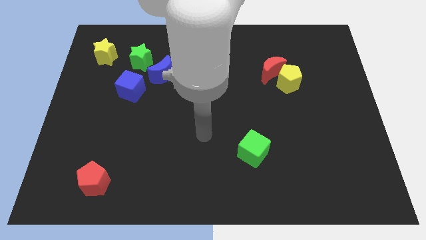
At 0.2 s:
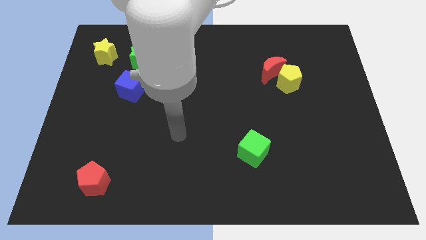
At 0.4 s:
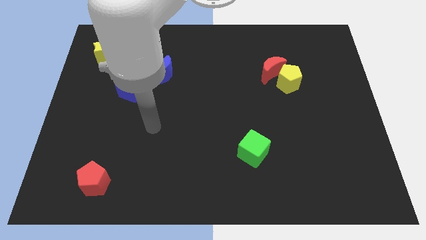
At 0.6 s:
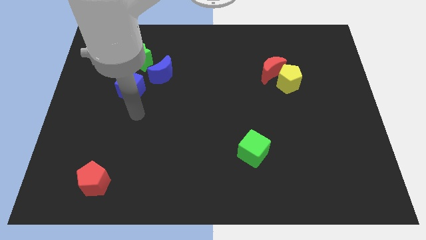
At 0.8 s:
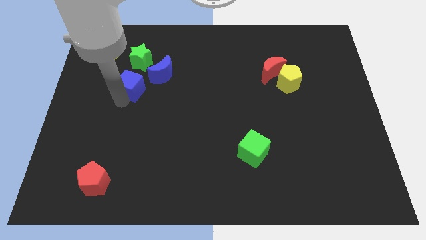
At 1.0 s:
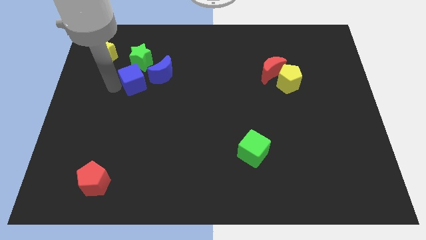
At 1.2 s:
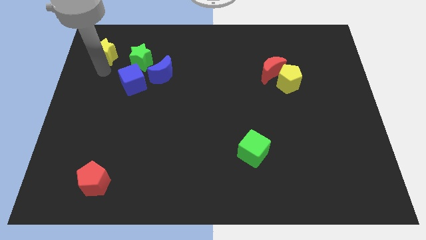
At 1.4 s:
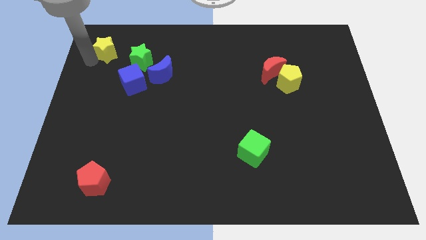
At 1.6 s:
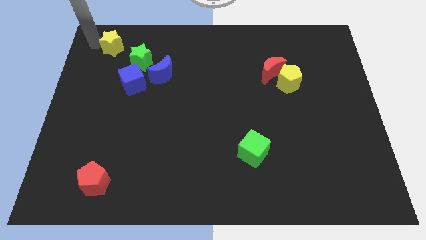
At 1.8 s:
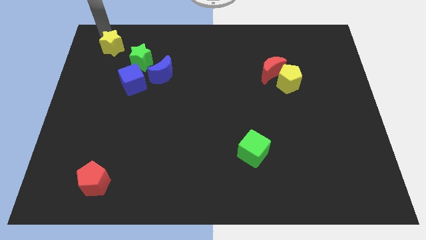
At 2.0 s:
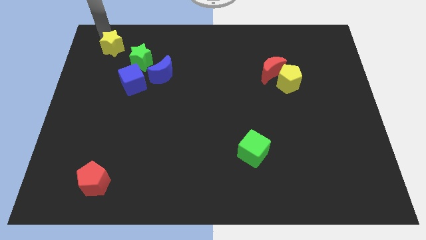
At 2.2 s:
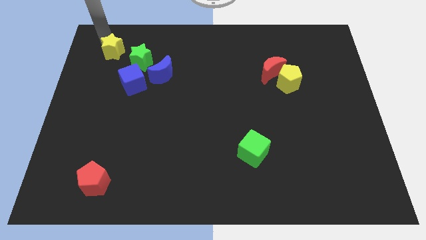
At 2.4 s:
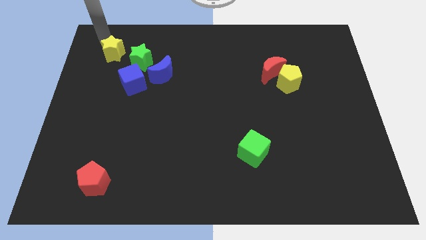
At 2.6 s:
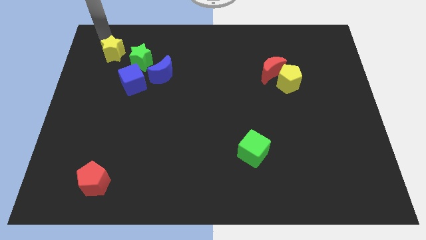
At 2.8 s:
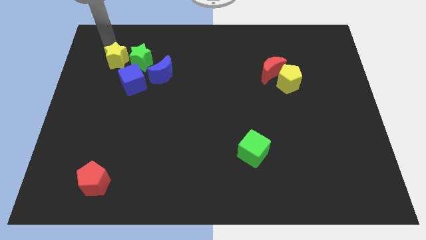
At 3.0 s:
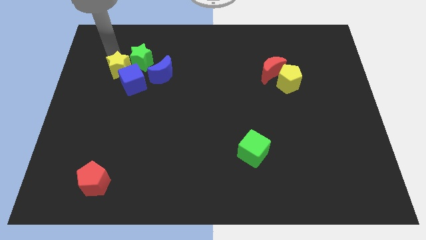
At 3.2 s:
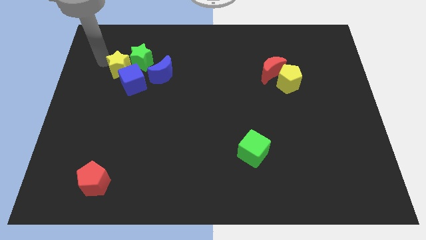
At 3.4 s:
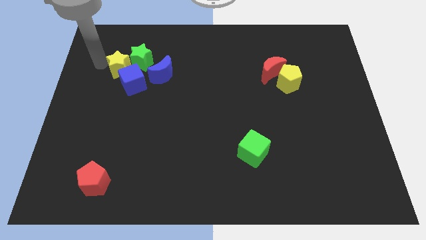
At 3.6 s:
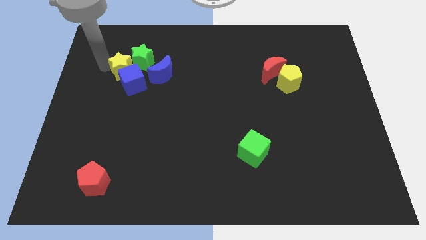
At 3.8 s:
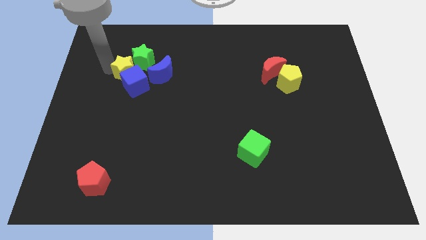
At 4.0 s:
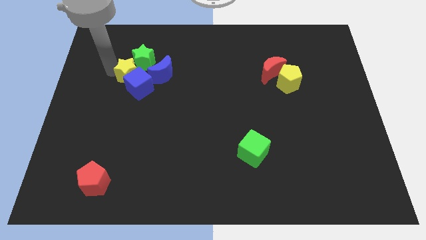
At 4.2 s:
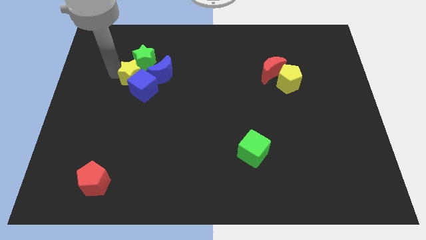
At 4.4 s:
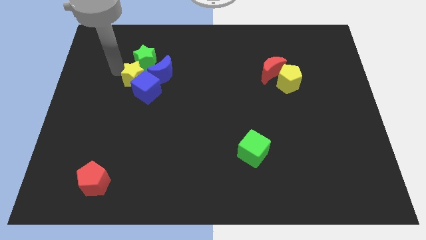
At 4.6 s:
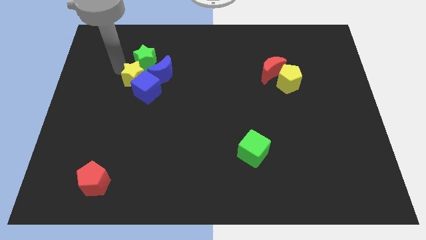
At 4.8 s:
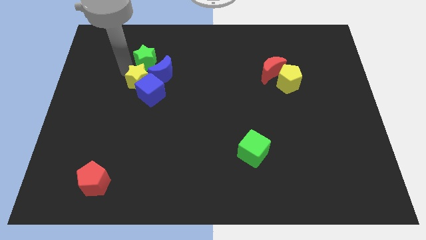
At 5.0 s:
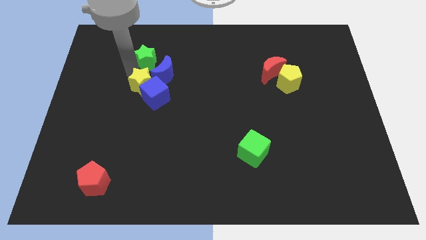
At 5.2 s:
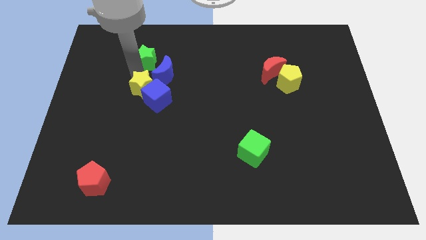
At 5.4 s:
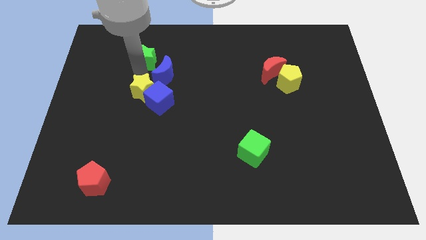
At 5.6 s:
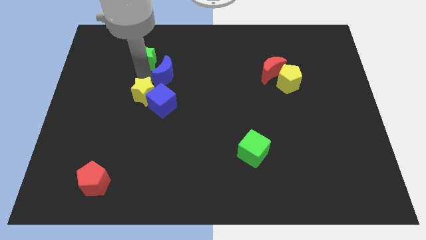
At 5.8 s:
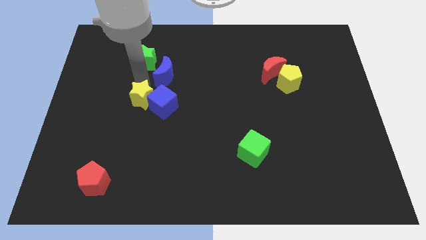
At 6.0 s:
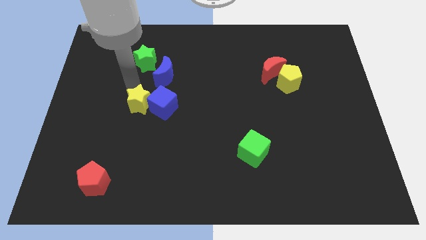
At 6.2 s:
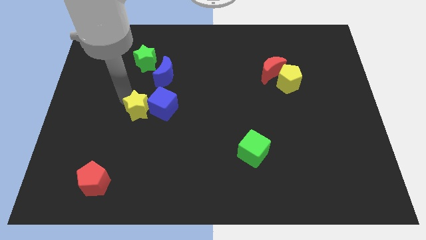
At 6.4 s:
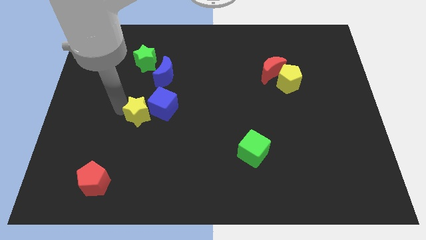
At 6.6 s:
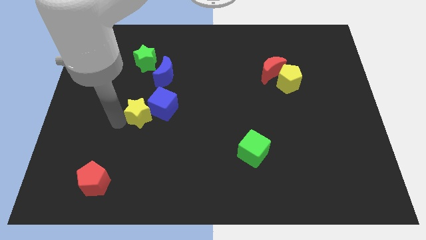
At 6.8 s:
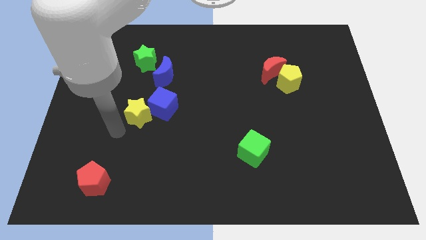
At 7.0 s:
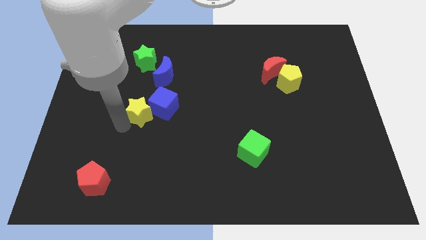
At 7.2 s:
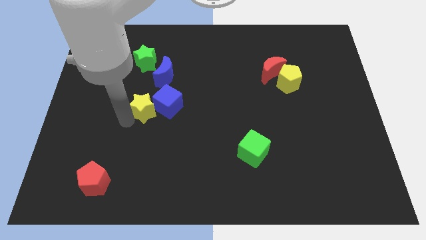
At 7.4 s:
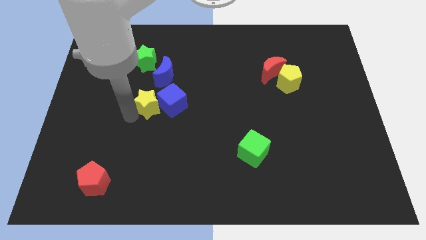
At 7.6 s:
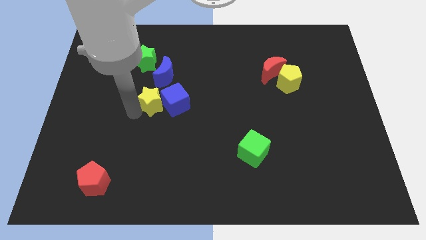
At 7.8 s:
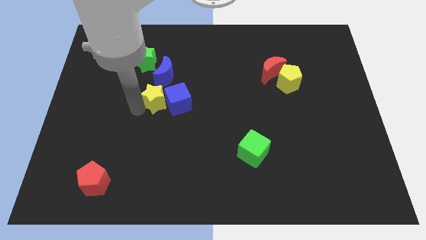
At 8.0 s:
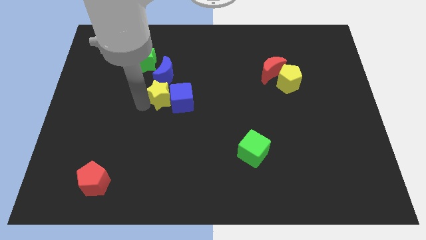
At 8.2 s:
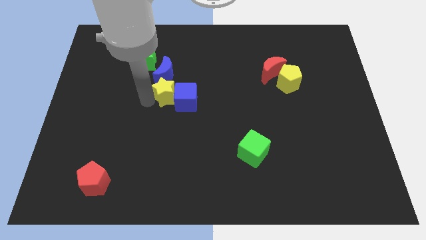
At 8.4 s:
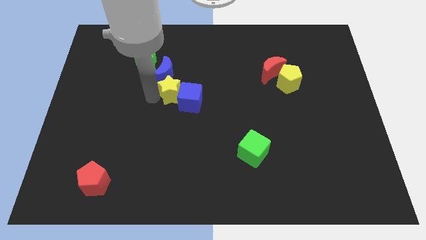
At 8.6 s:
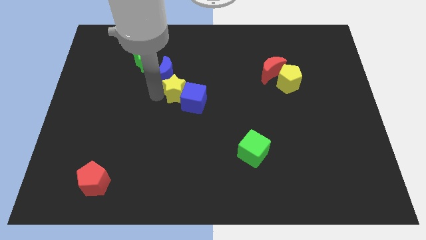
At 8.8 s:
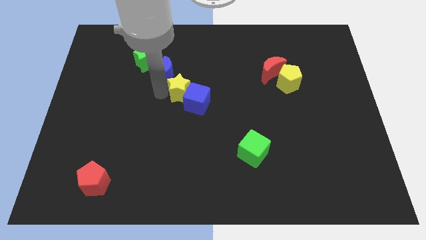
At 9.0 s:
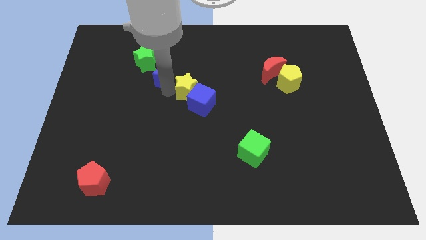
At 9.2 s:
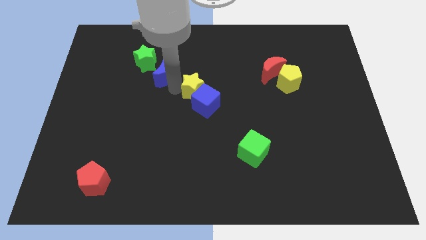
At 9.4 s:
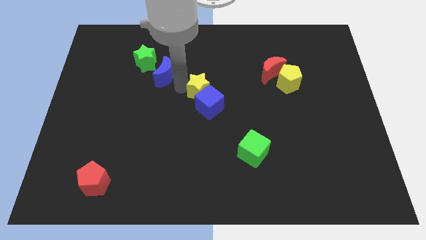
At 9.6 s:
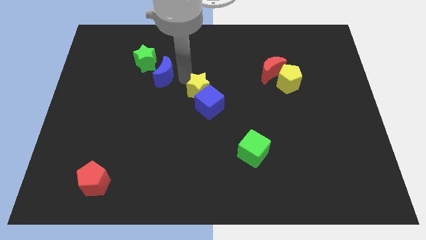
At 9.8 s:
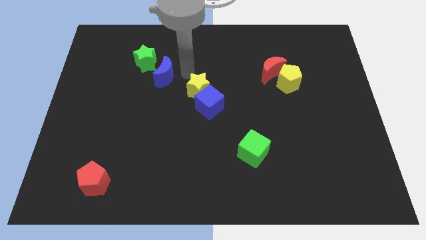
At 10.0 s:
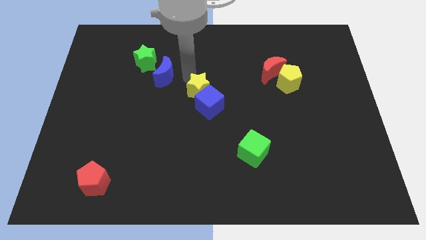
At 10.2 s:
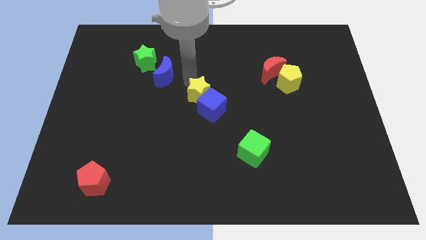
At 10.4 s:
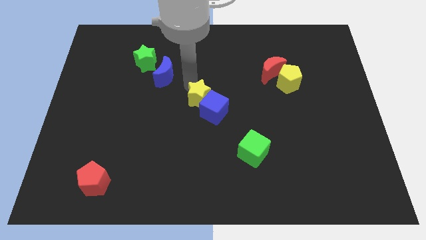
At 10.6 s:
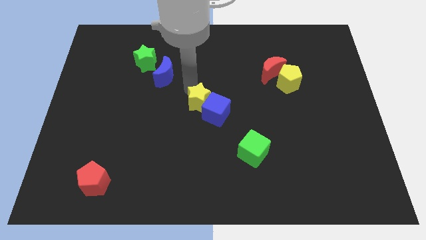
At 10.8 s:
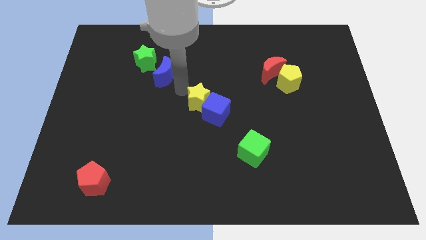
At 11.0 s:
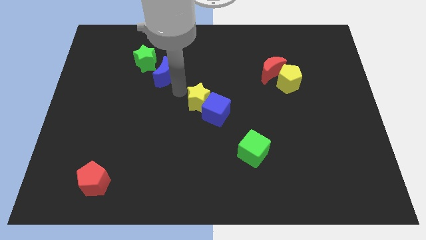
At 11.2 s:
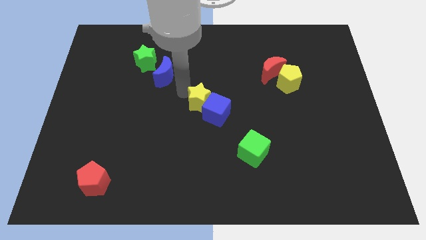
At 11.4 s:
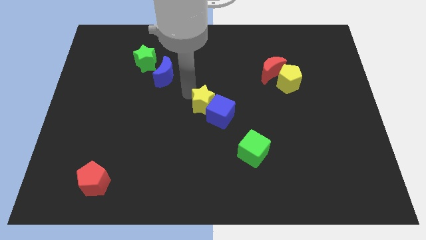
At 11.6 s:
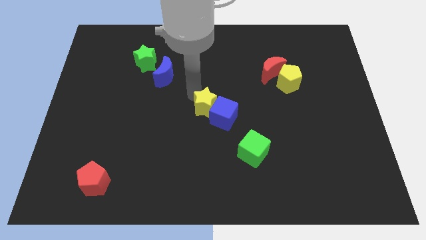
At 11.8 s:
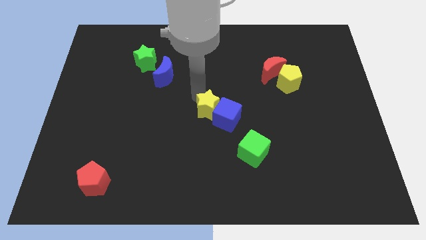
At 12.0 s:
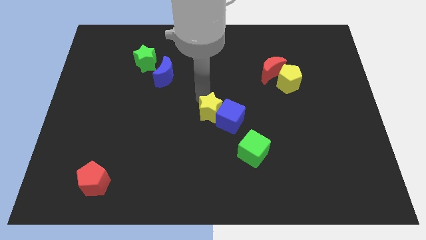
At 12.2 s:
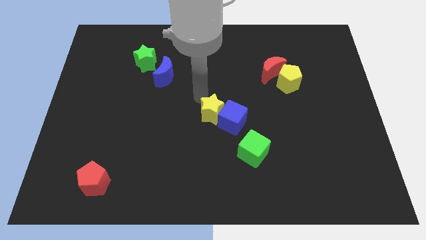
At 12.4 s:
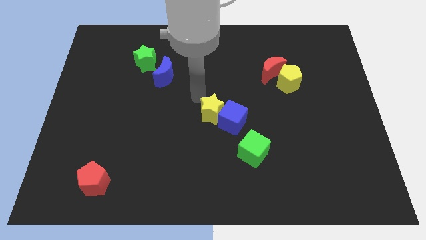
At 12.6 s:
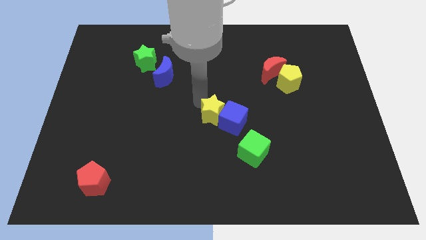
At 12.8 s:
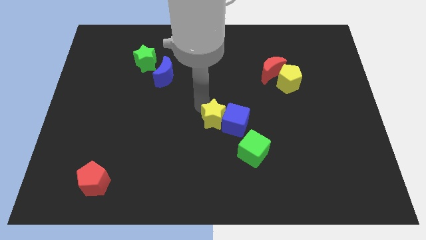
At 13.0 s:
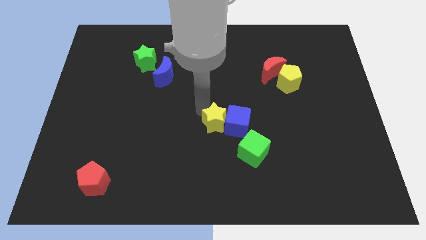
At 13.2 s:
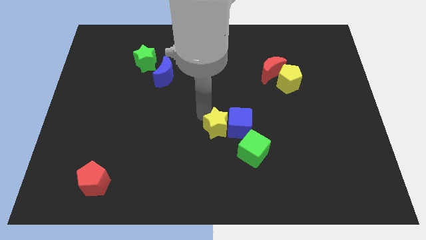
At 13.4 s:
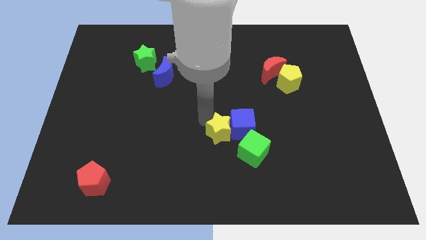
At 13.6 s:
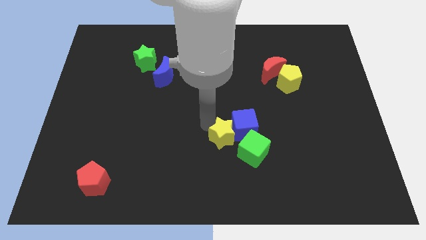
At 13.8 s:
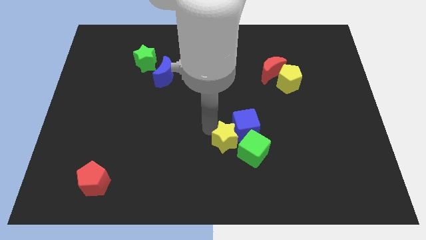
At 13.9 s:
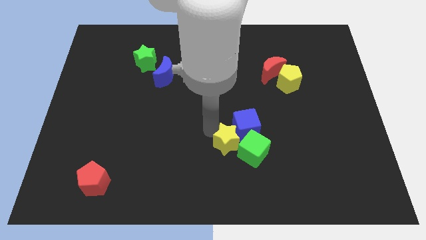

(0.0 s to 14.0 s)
slide the yellow star close to the green cube

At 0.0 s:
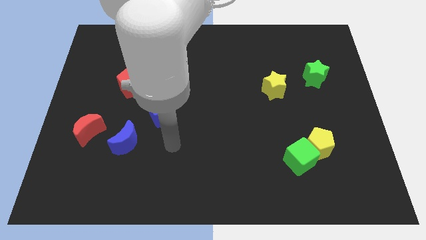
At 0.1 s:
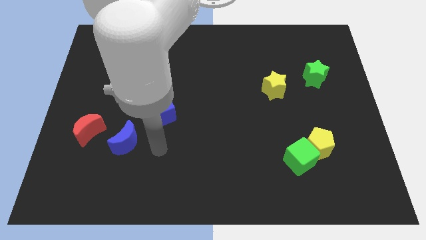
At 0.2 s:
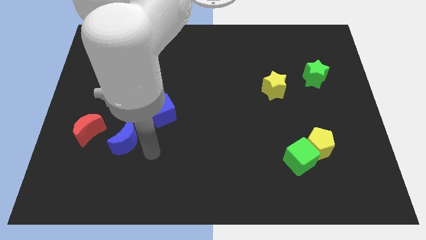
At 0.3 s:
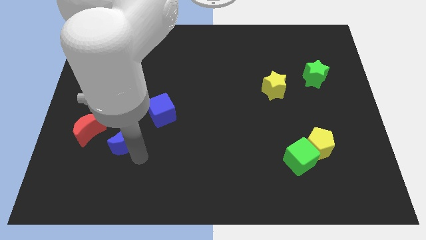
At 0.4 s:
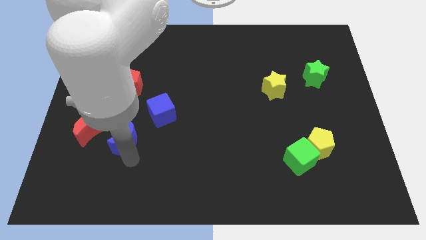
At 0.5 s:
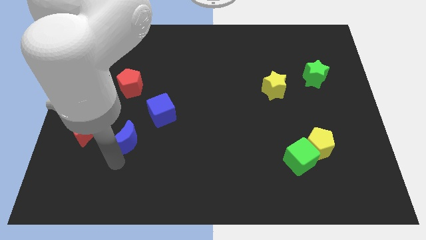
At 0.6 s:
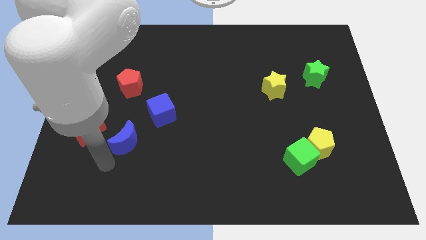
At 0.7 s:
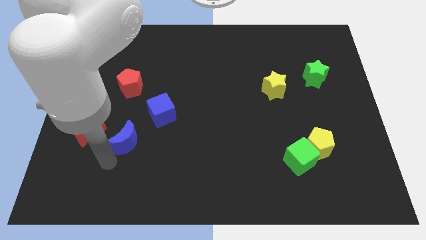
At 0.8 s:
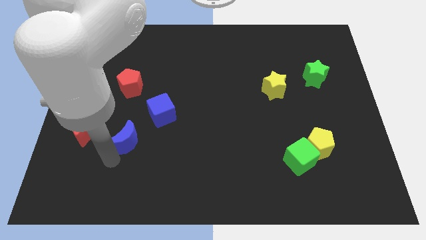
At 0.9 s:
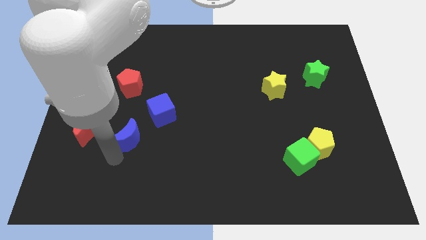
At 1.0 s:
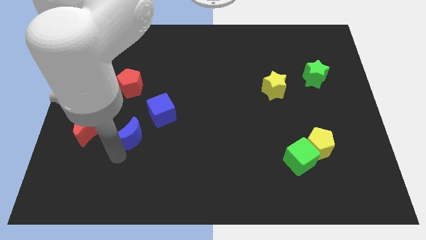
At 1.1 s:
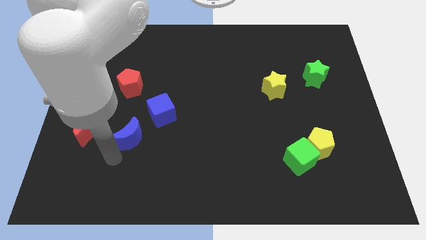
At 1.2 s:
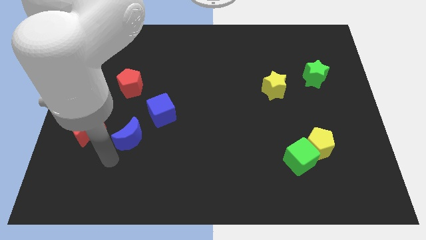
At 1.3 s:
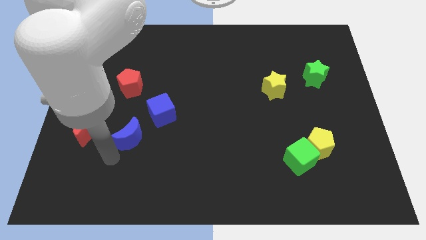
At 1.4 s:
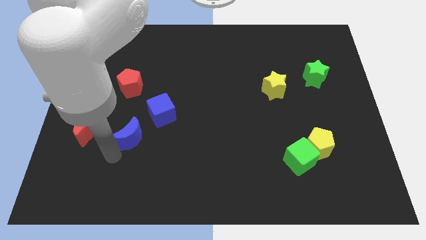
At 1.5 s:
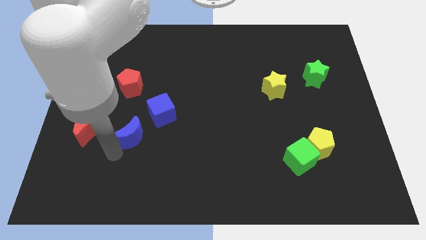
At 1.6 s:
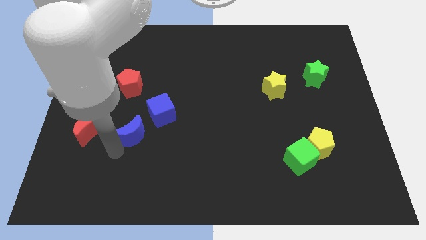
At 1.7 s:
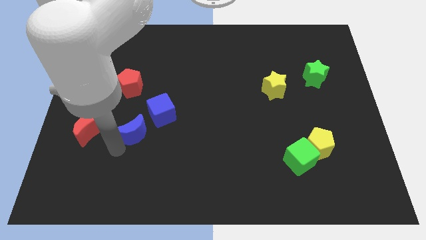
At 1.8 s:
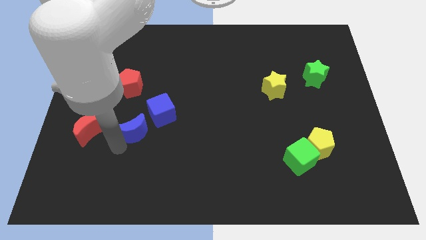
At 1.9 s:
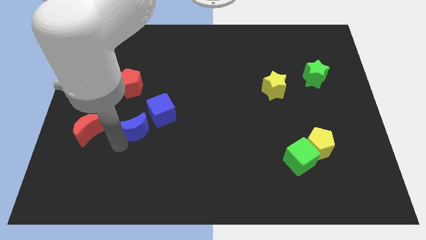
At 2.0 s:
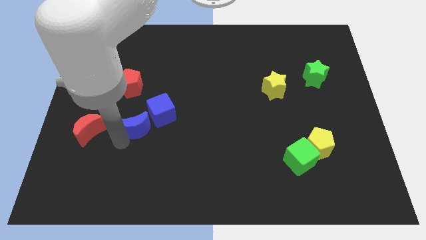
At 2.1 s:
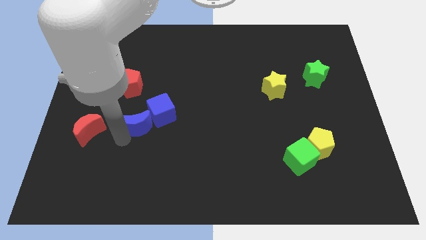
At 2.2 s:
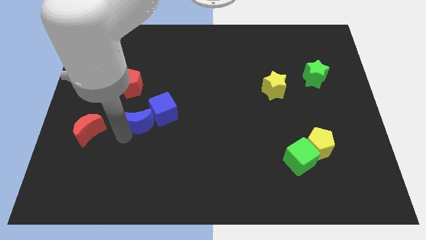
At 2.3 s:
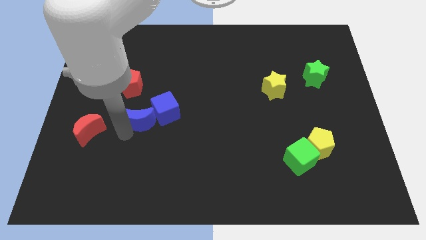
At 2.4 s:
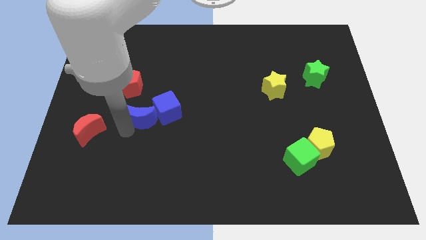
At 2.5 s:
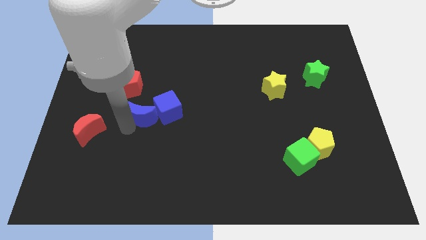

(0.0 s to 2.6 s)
move the blue moon towards the blue cube
